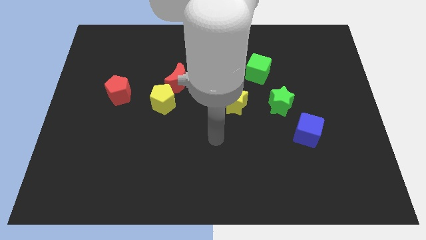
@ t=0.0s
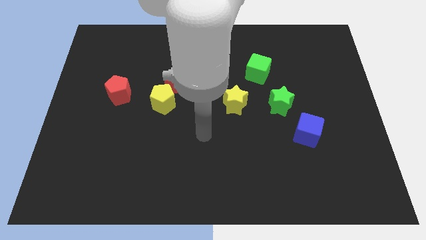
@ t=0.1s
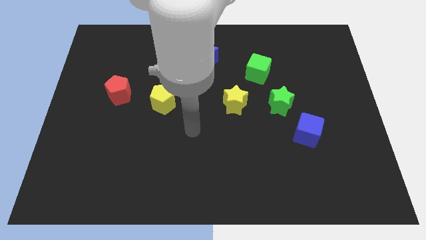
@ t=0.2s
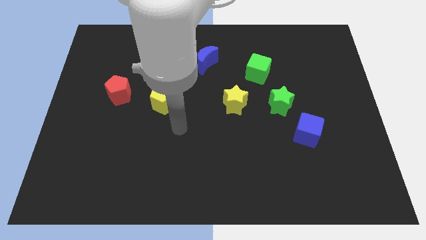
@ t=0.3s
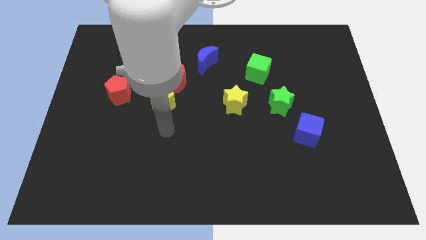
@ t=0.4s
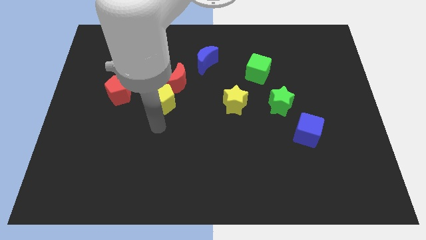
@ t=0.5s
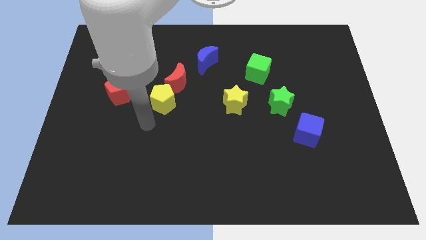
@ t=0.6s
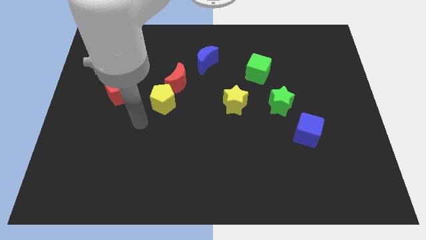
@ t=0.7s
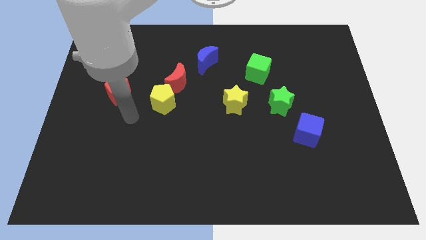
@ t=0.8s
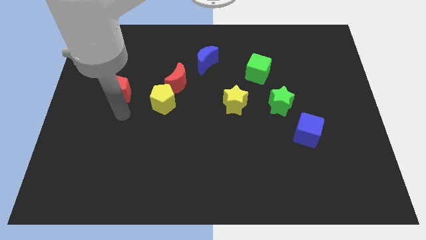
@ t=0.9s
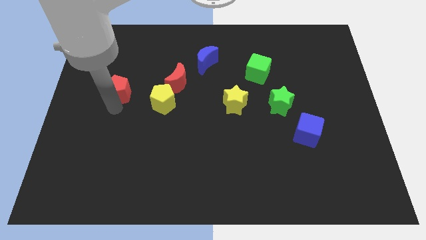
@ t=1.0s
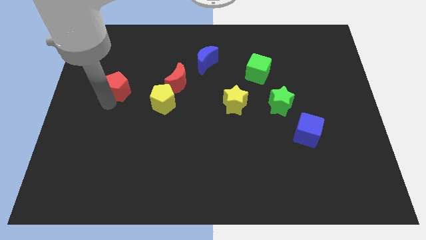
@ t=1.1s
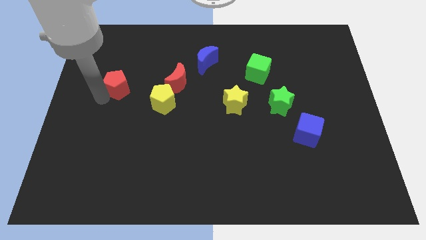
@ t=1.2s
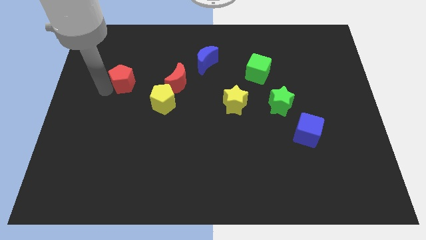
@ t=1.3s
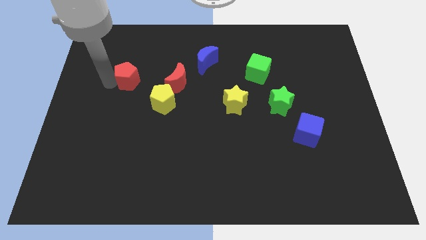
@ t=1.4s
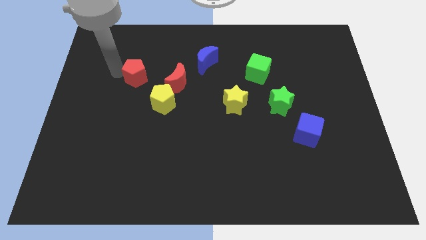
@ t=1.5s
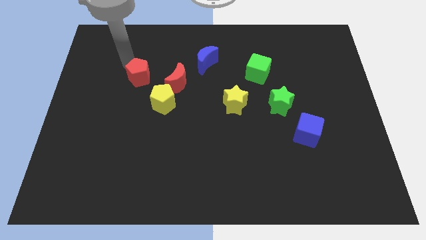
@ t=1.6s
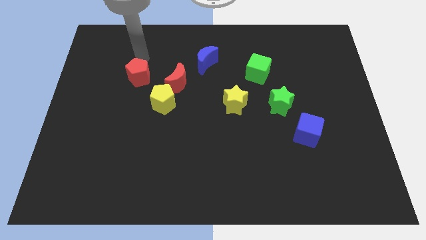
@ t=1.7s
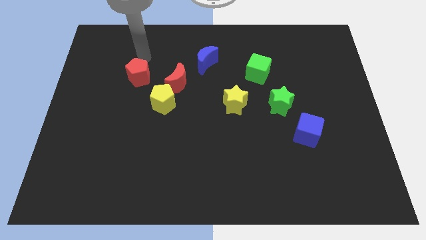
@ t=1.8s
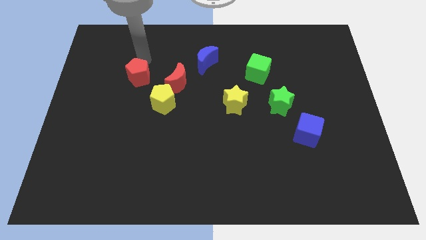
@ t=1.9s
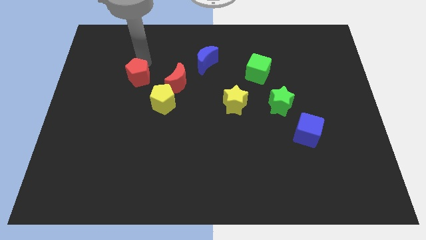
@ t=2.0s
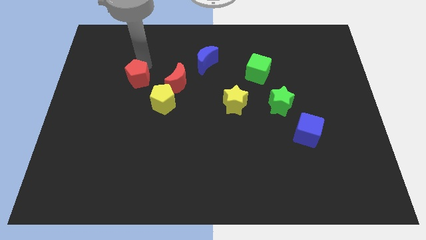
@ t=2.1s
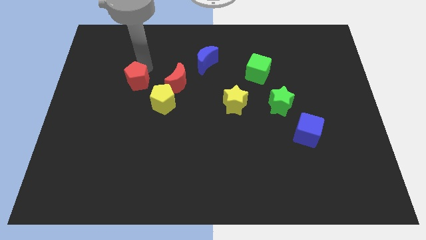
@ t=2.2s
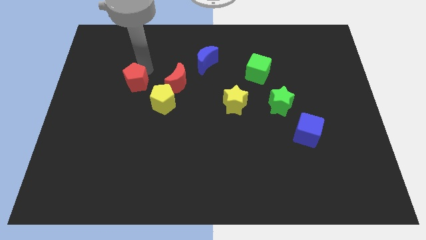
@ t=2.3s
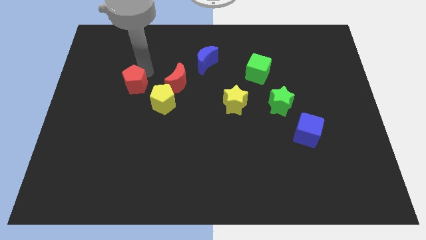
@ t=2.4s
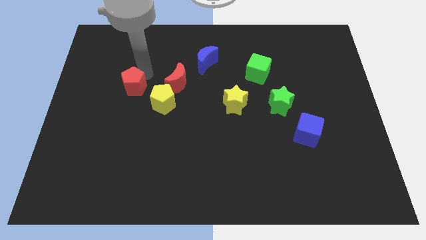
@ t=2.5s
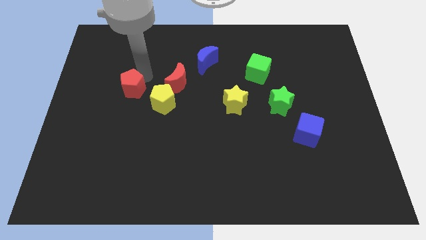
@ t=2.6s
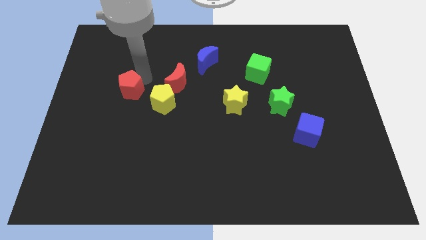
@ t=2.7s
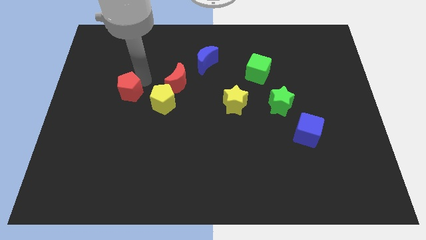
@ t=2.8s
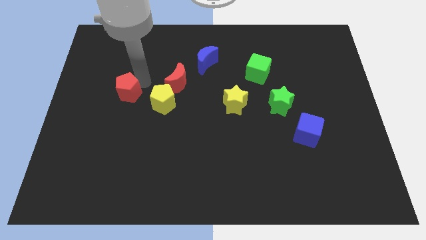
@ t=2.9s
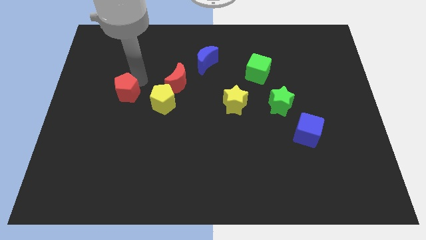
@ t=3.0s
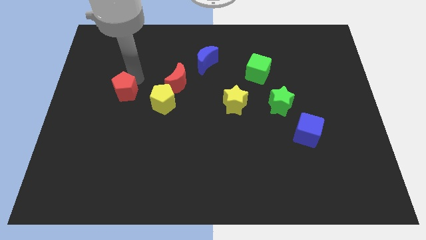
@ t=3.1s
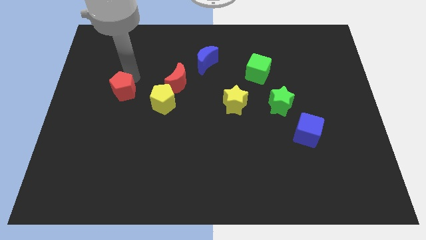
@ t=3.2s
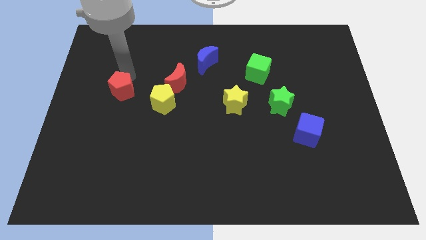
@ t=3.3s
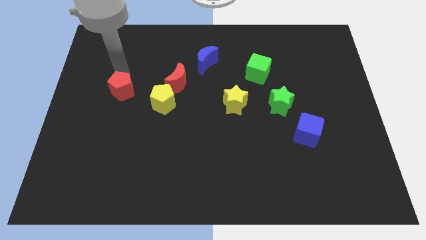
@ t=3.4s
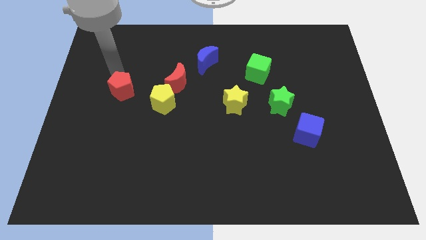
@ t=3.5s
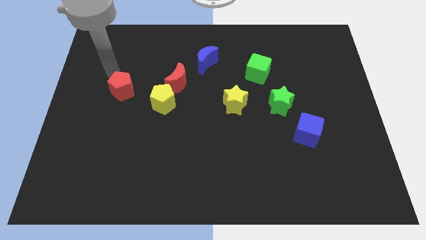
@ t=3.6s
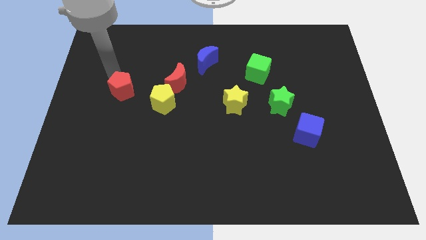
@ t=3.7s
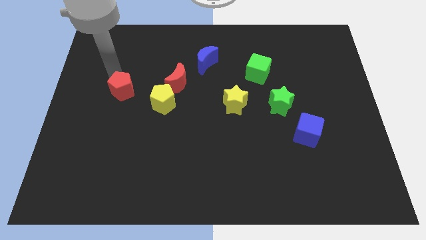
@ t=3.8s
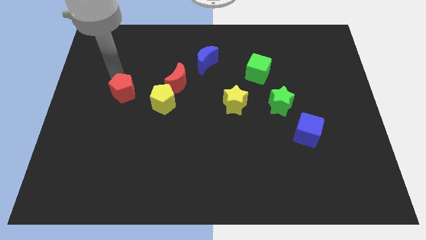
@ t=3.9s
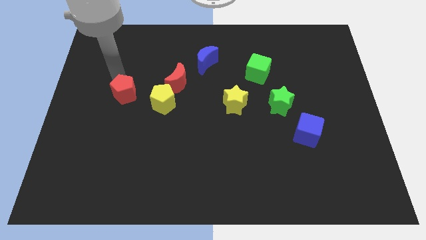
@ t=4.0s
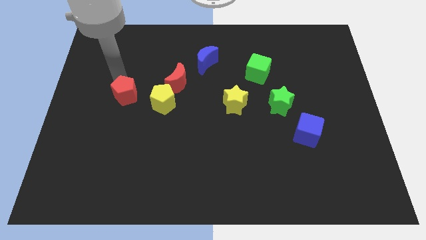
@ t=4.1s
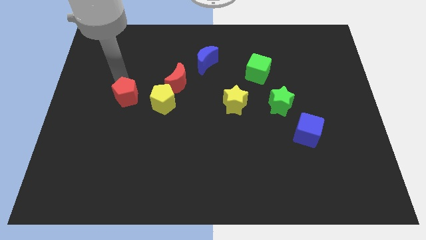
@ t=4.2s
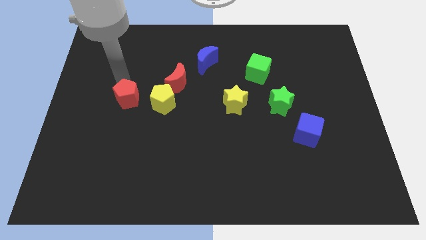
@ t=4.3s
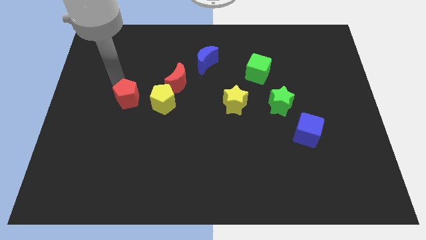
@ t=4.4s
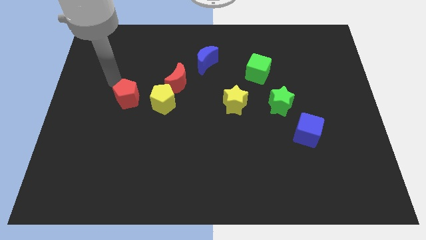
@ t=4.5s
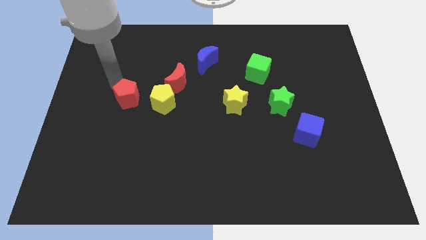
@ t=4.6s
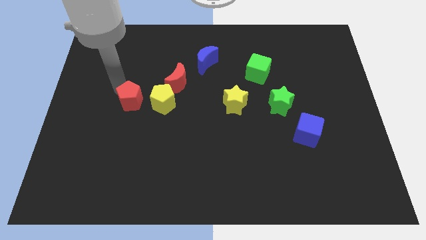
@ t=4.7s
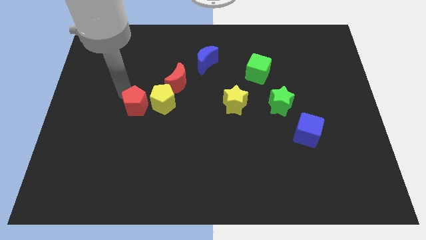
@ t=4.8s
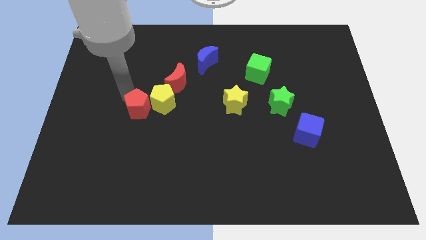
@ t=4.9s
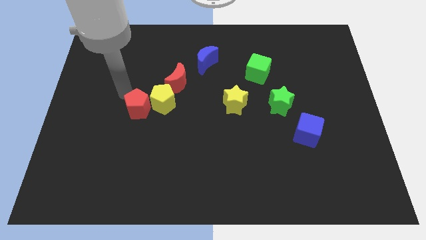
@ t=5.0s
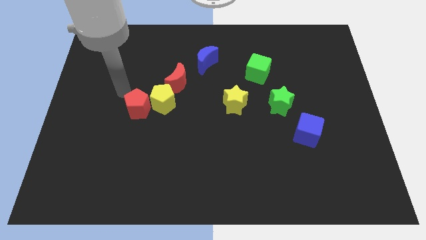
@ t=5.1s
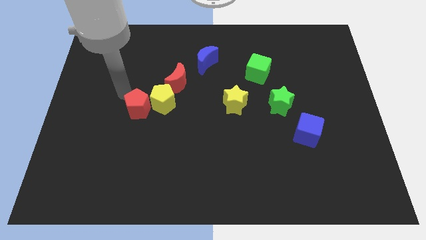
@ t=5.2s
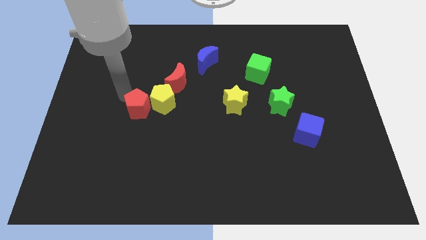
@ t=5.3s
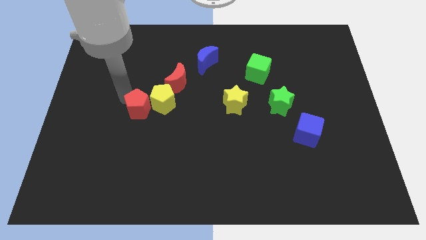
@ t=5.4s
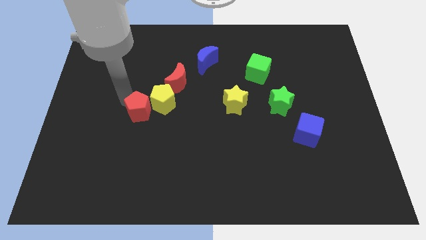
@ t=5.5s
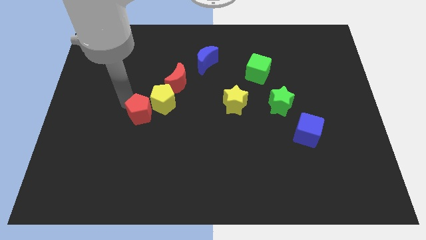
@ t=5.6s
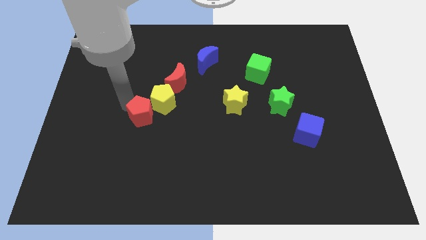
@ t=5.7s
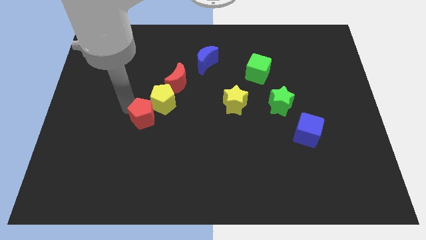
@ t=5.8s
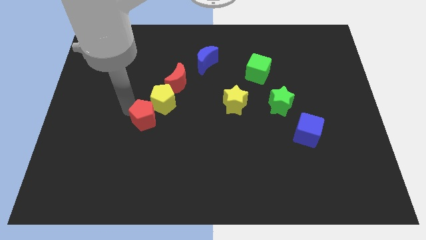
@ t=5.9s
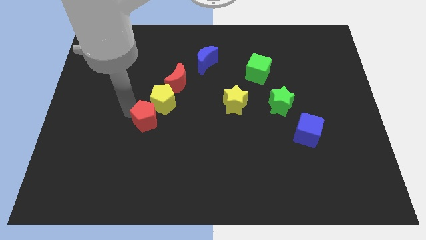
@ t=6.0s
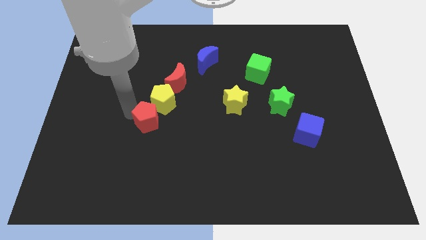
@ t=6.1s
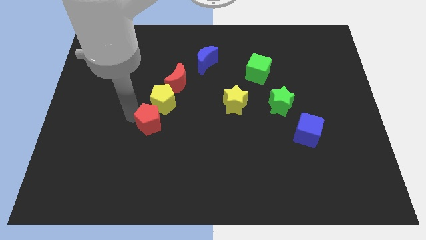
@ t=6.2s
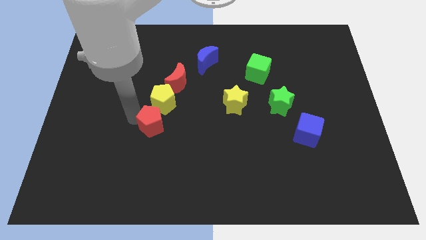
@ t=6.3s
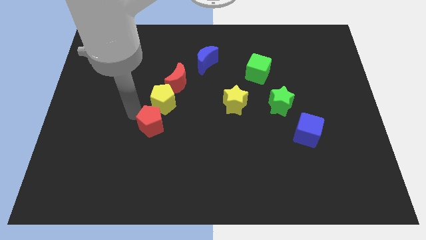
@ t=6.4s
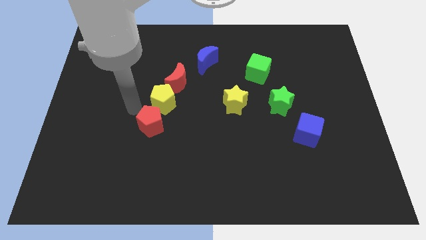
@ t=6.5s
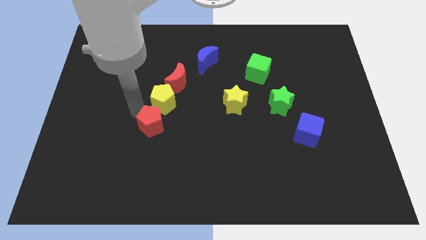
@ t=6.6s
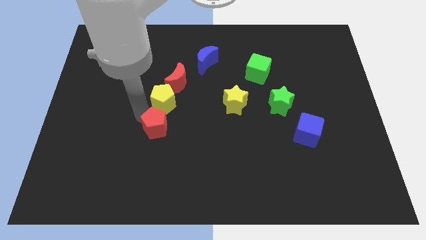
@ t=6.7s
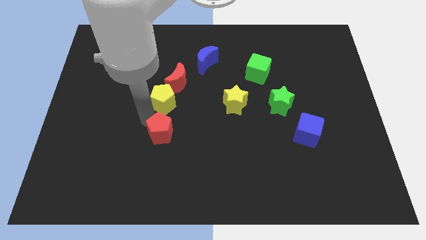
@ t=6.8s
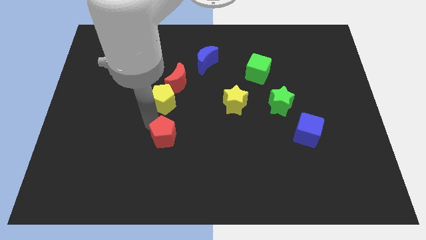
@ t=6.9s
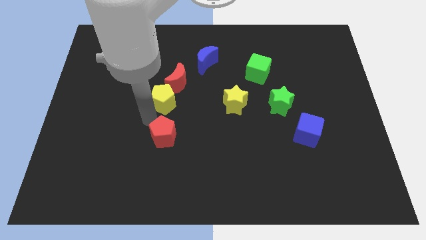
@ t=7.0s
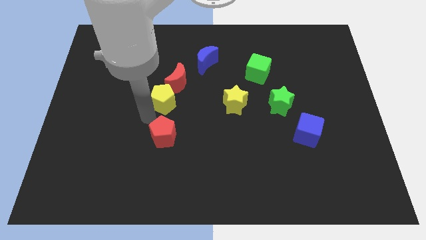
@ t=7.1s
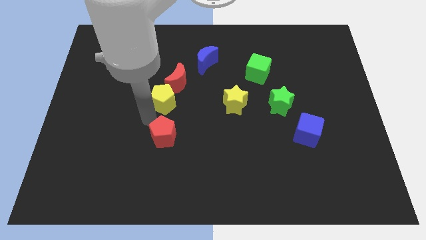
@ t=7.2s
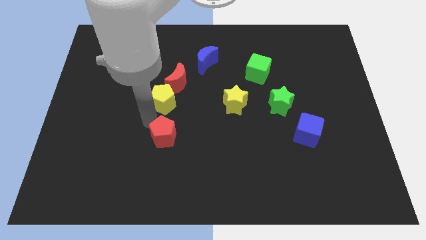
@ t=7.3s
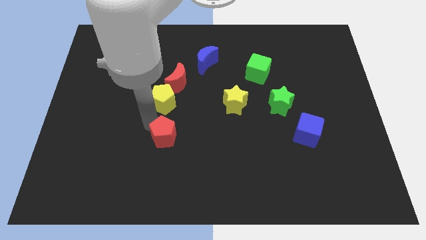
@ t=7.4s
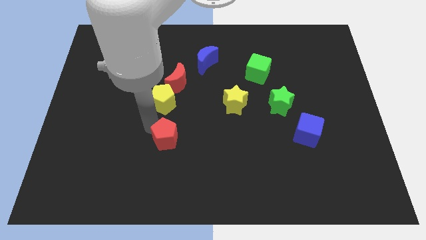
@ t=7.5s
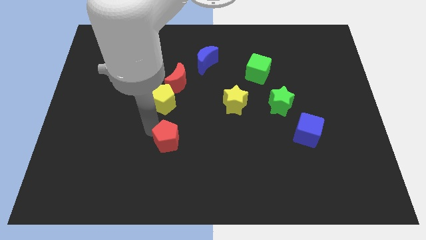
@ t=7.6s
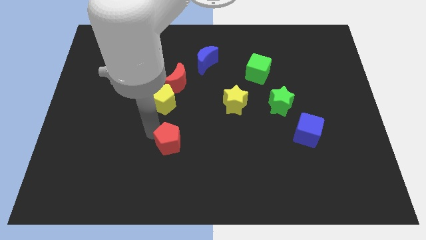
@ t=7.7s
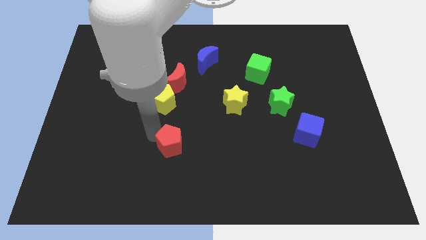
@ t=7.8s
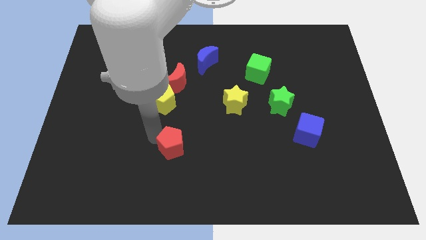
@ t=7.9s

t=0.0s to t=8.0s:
push the red pentagon diagonally down and right

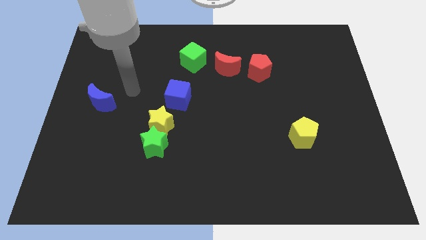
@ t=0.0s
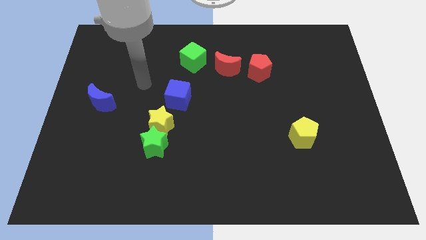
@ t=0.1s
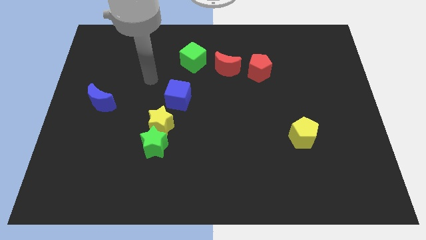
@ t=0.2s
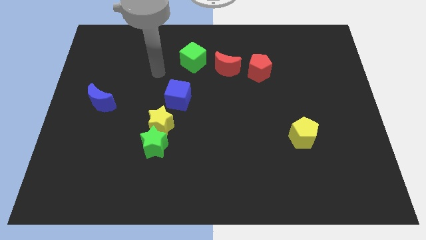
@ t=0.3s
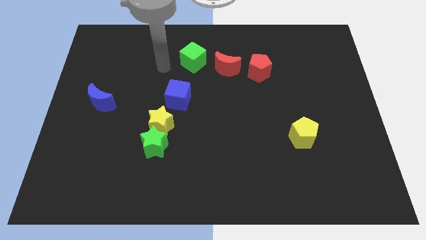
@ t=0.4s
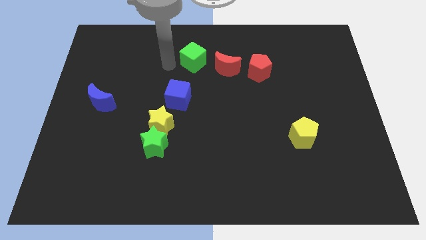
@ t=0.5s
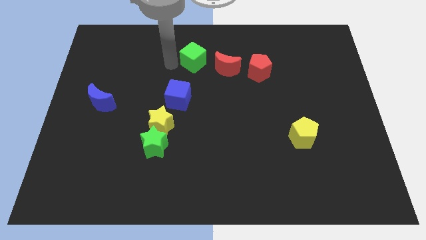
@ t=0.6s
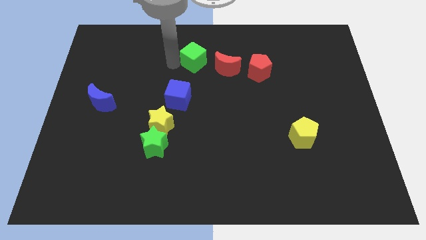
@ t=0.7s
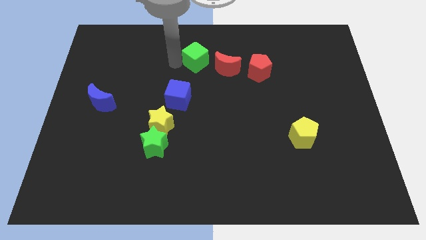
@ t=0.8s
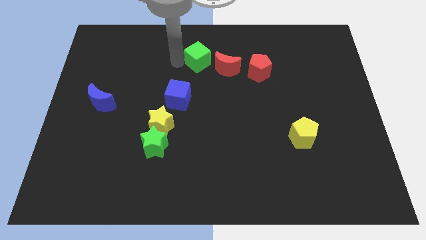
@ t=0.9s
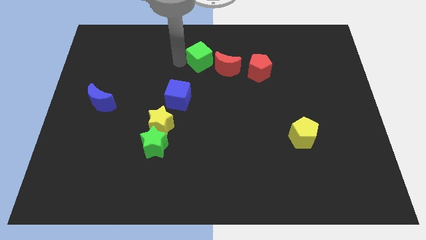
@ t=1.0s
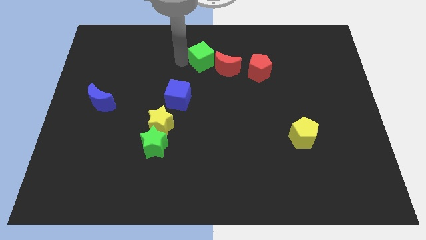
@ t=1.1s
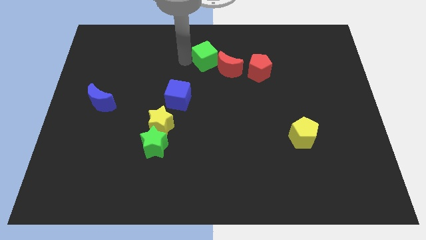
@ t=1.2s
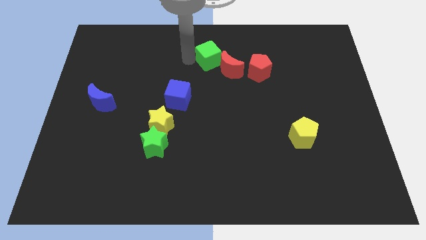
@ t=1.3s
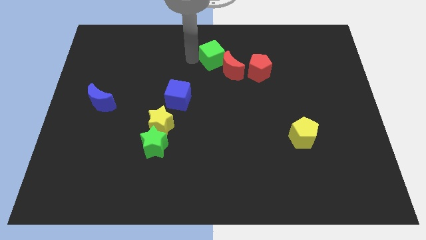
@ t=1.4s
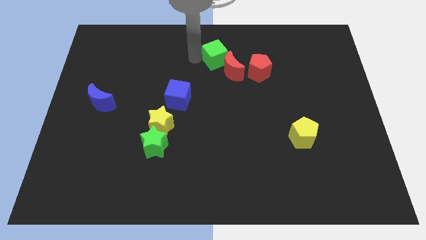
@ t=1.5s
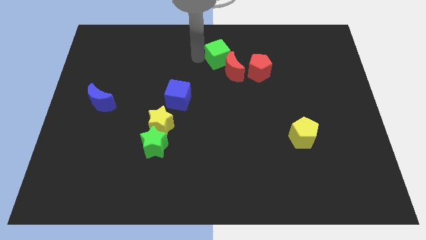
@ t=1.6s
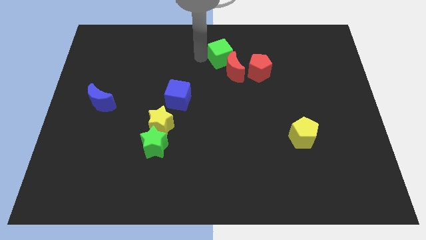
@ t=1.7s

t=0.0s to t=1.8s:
move the green cube right a bit
